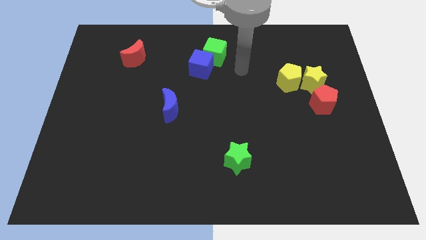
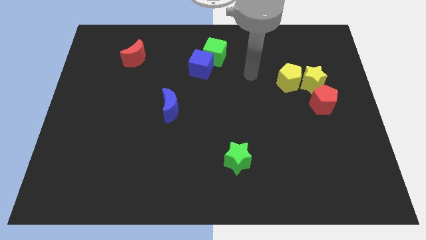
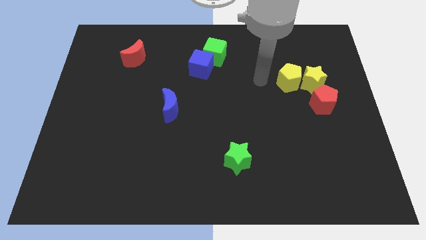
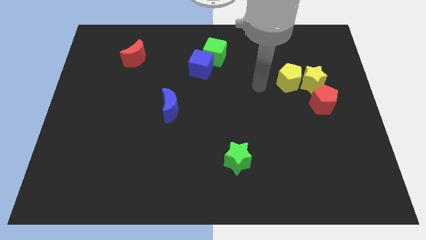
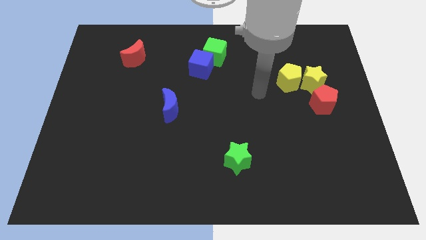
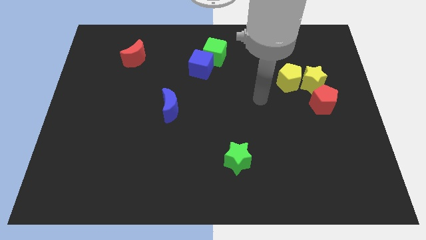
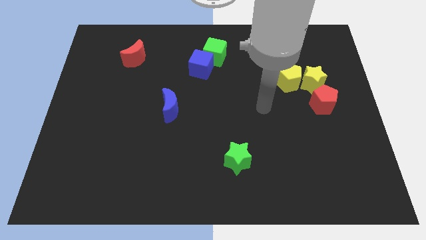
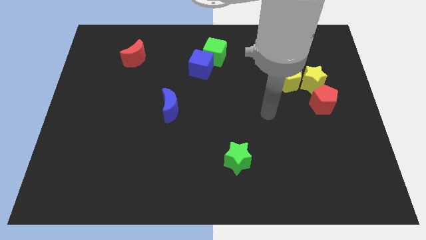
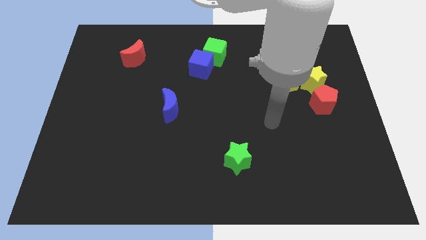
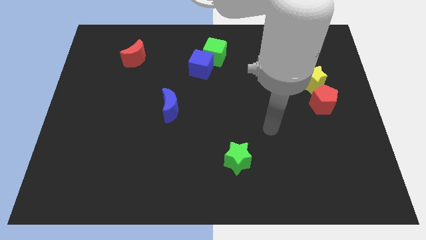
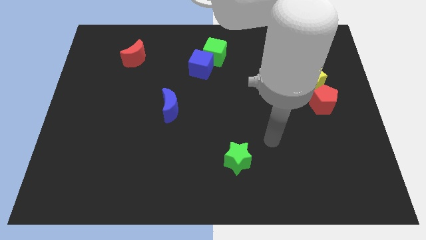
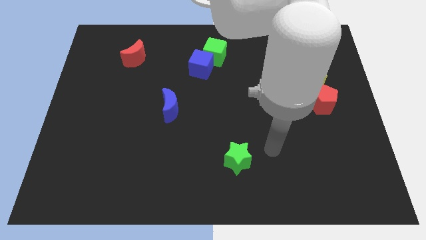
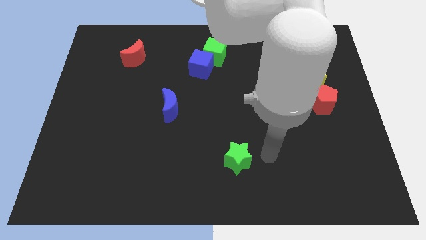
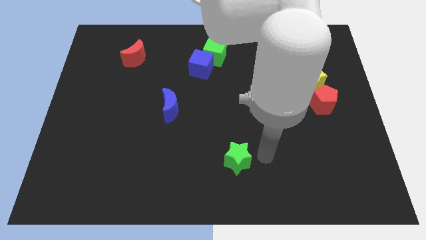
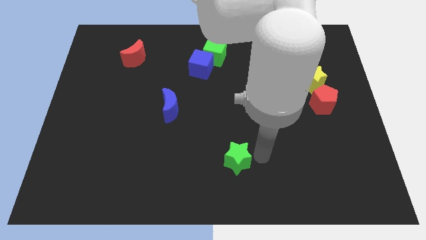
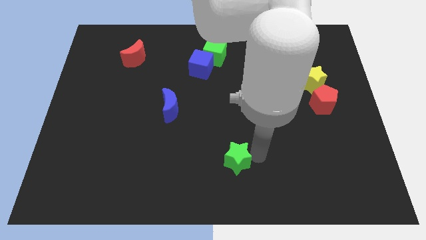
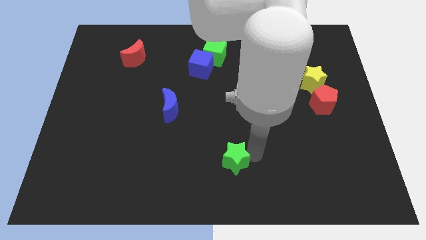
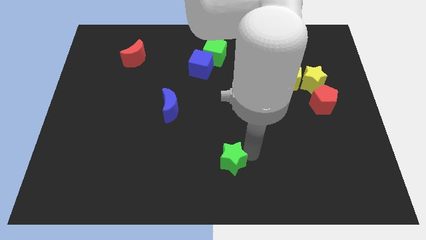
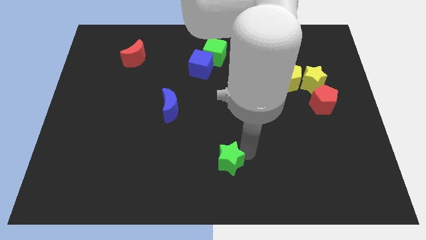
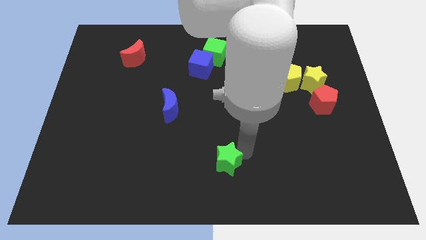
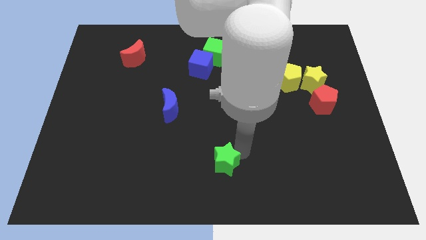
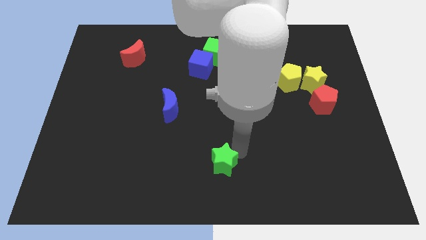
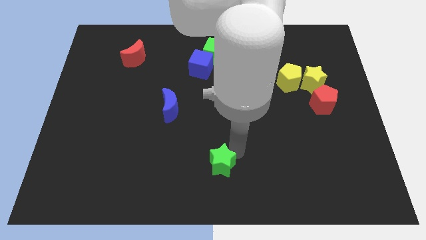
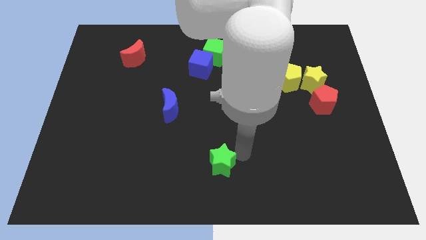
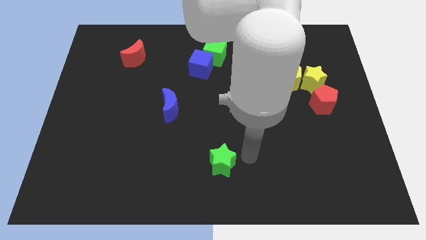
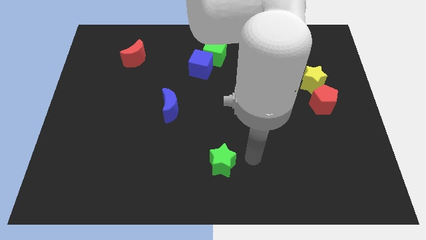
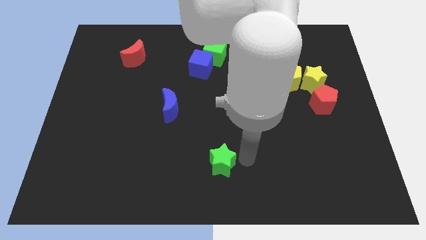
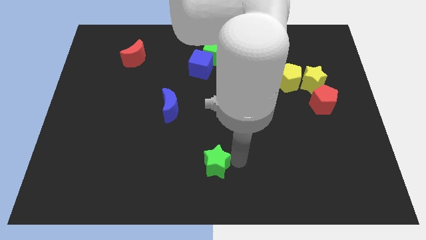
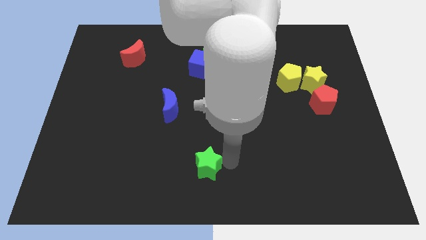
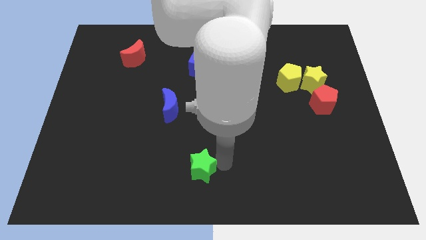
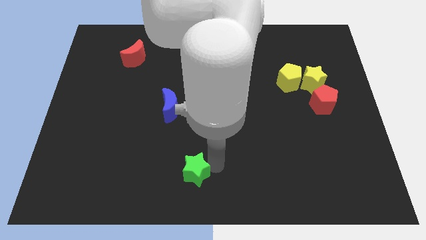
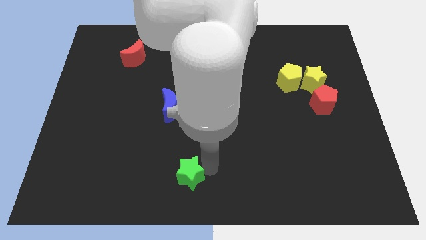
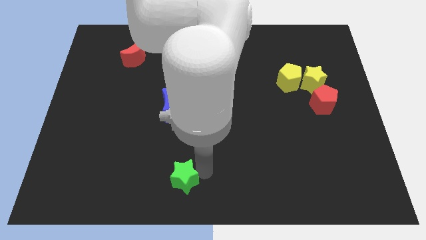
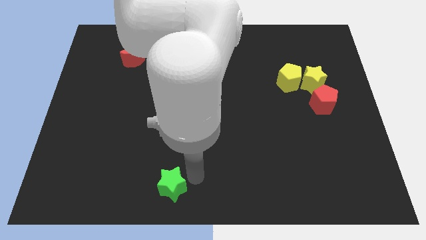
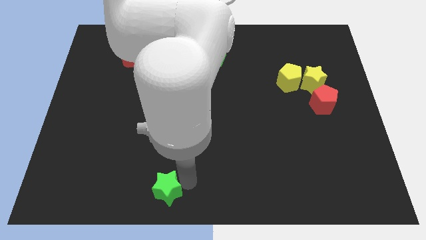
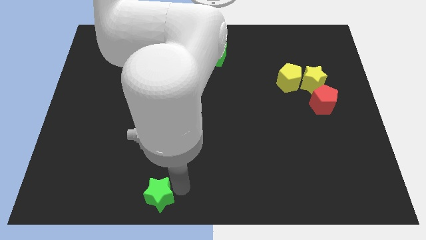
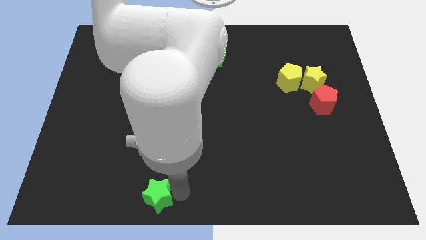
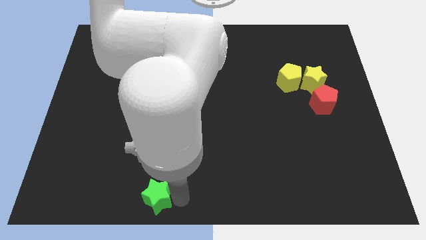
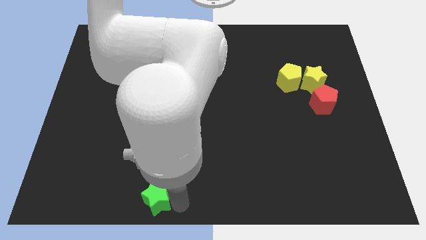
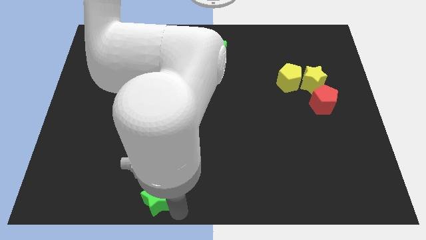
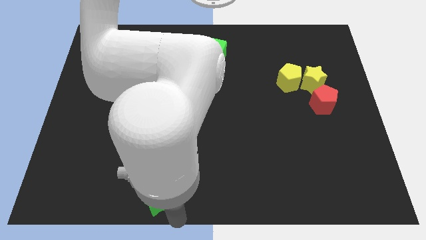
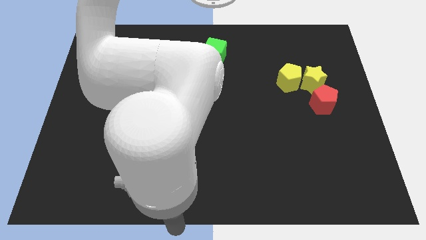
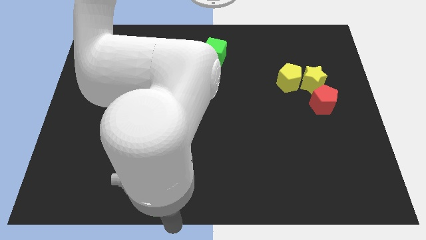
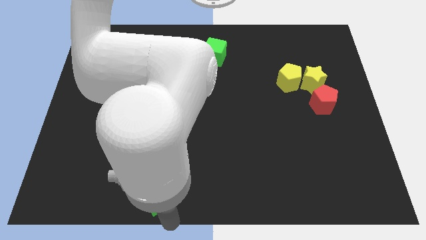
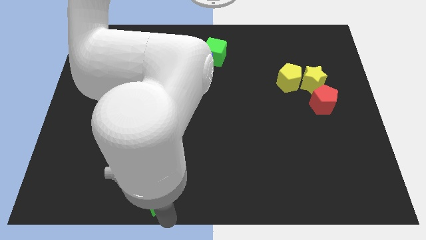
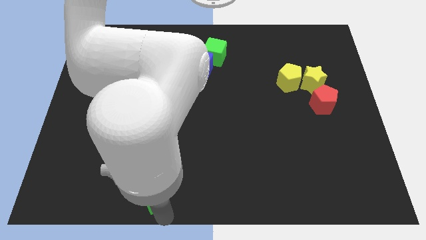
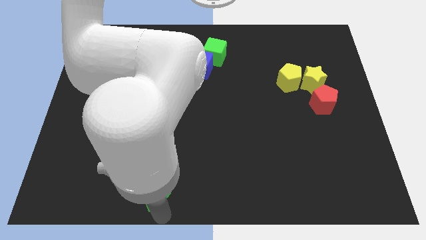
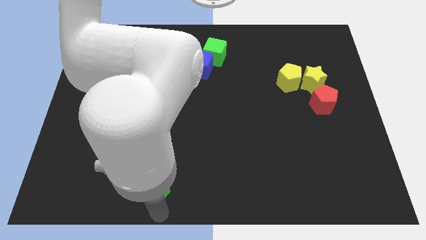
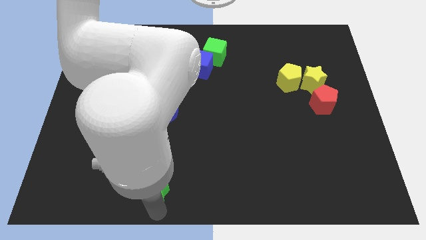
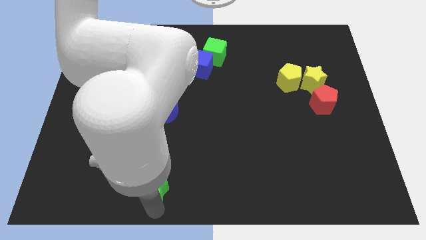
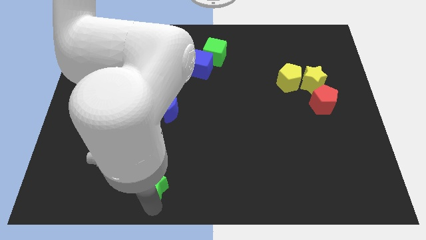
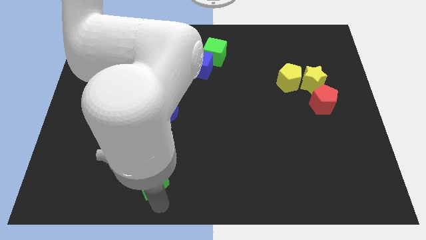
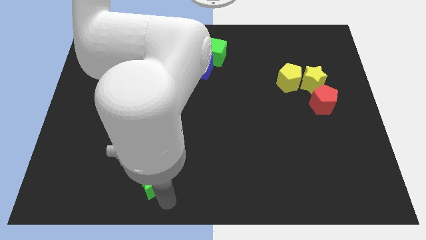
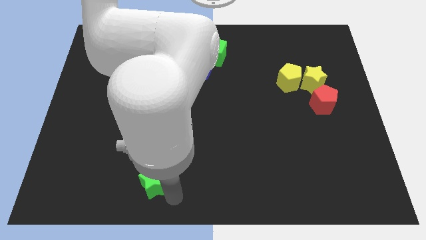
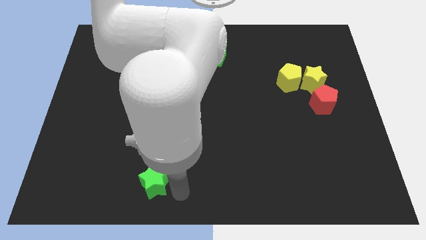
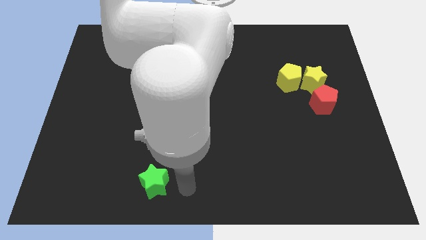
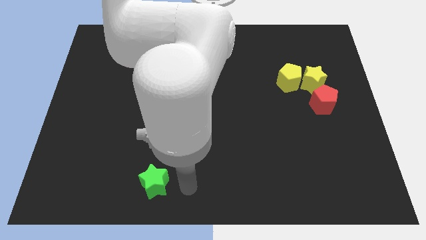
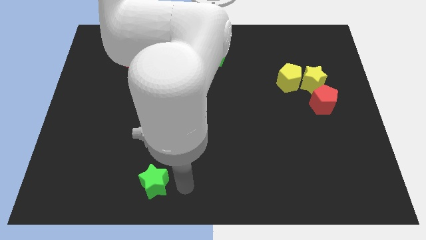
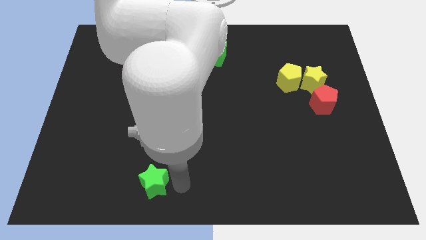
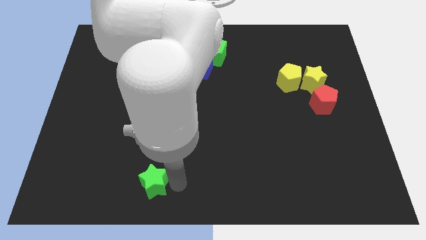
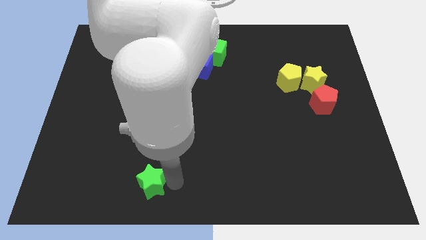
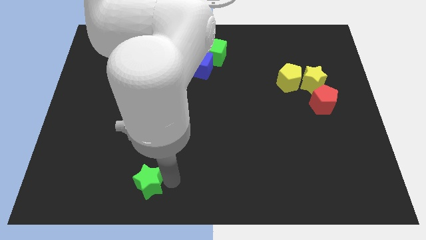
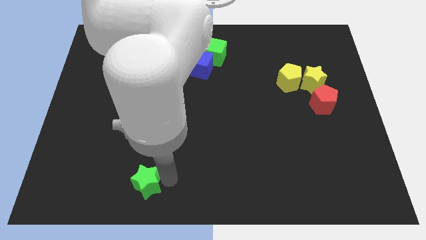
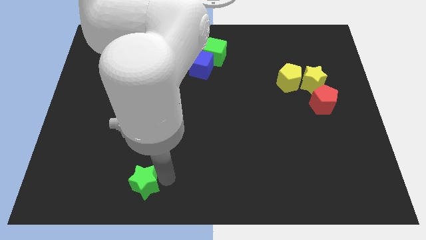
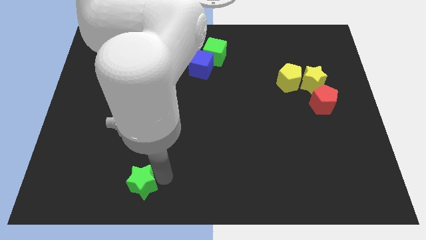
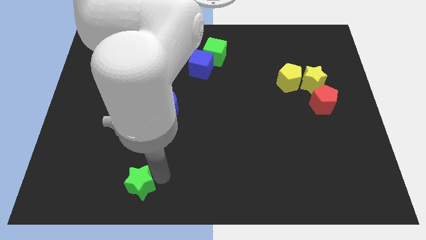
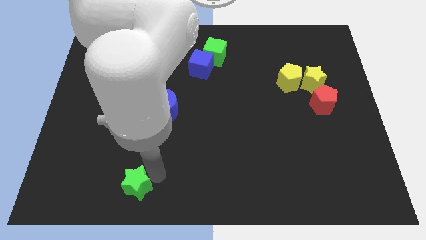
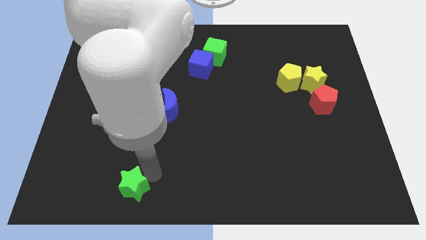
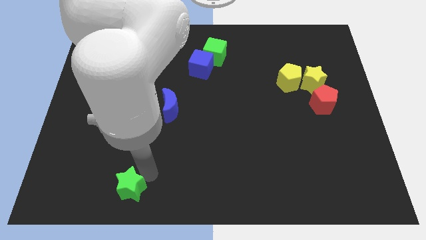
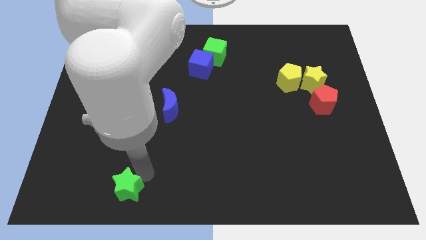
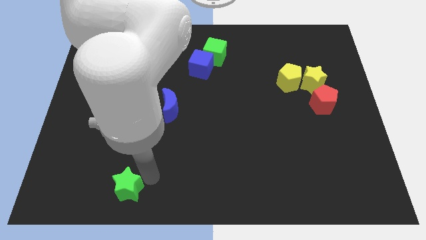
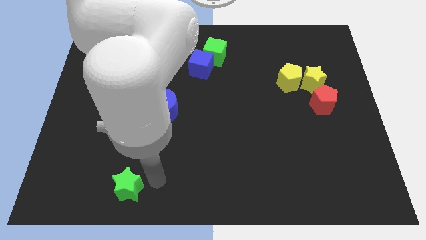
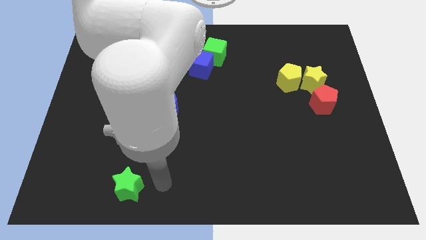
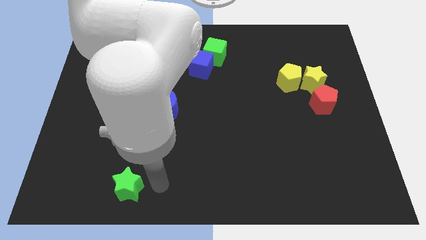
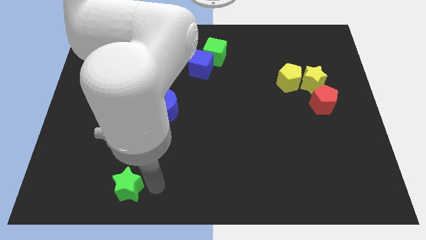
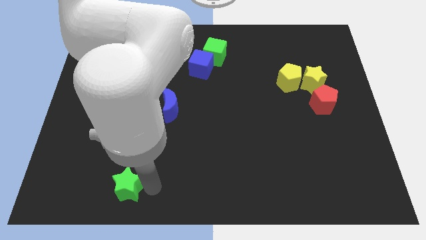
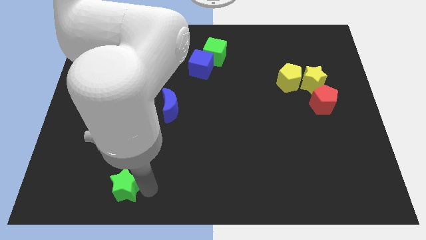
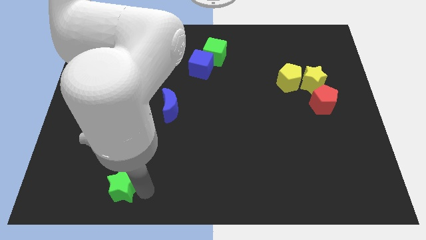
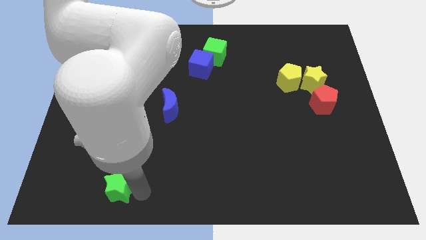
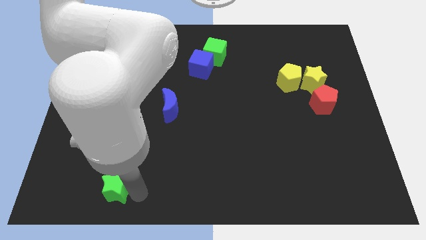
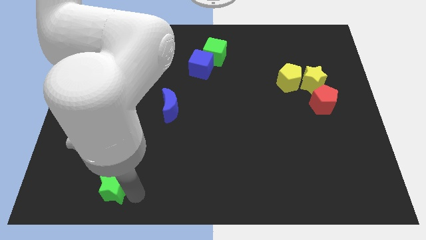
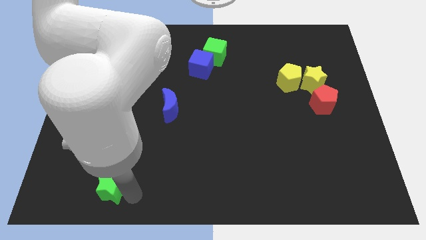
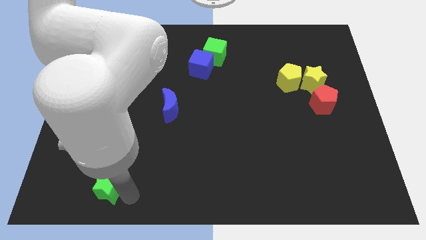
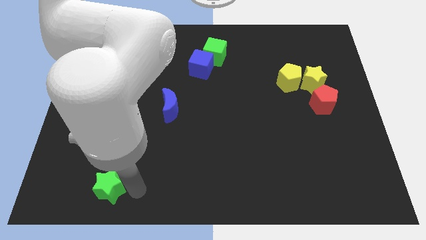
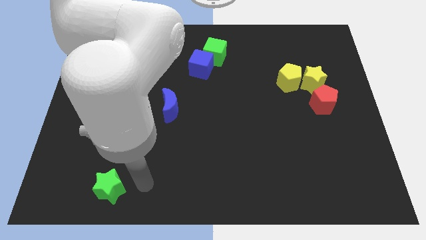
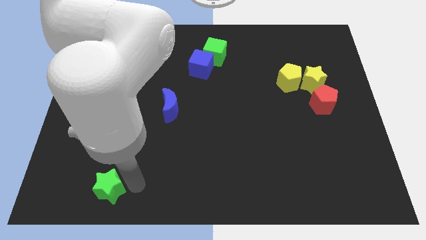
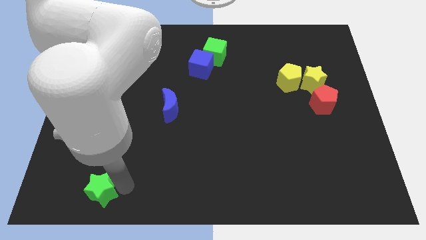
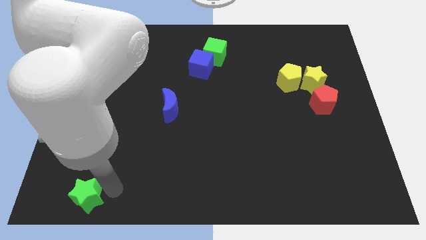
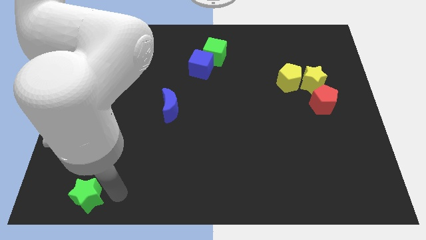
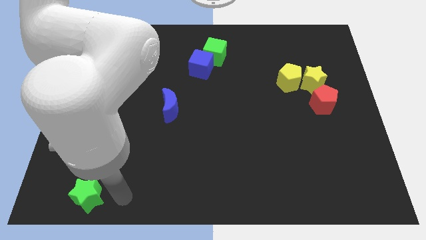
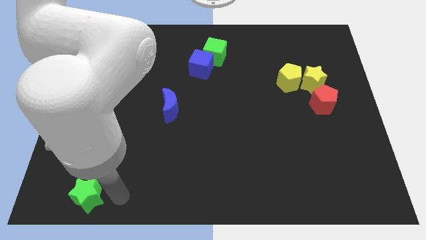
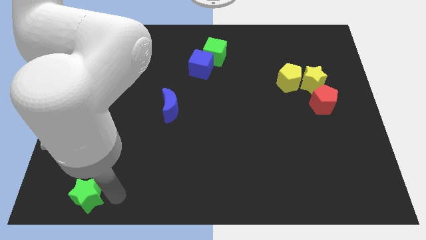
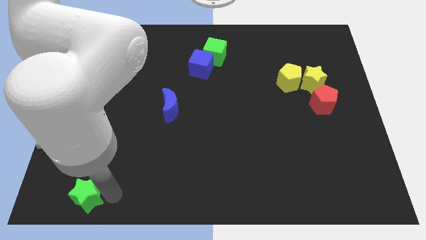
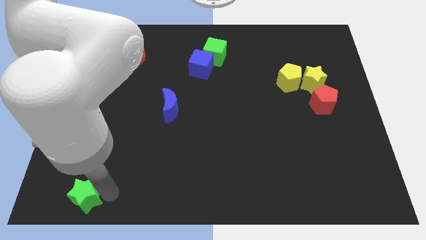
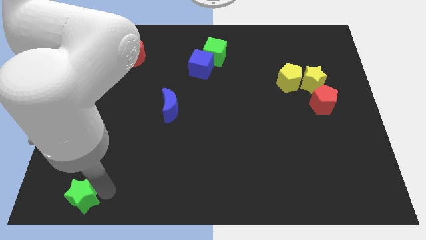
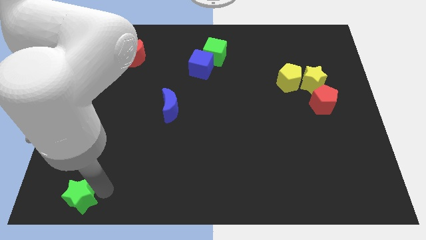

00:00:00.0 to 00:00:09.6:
put the green star to the bottom left
